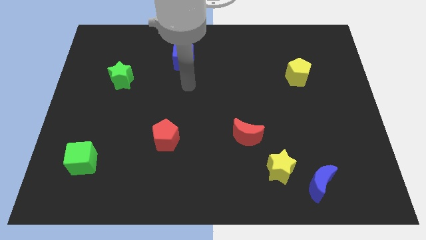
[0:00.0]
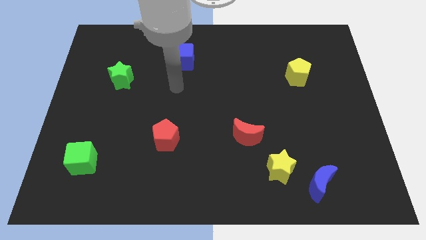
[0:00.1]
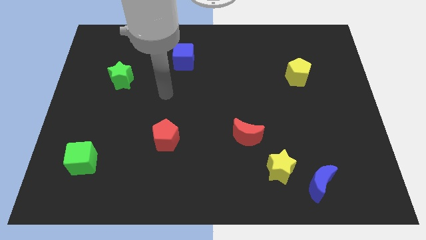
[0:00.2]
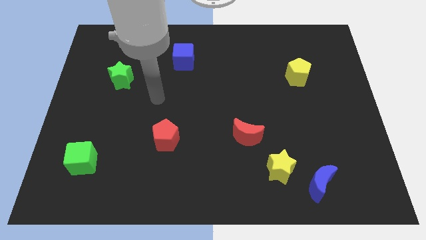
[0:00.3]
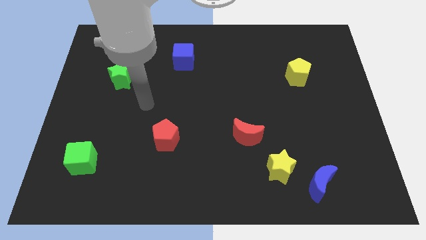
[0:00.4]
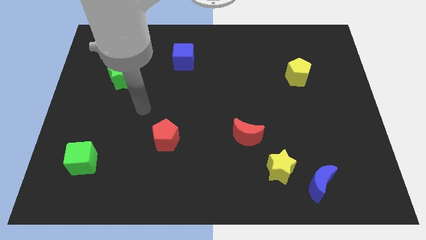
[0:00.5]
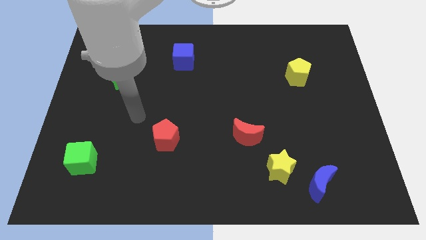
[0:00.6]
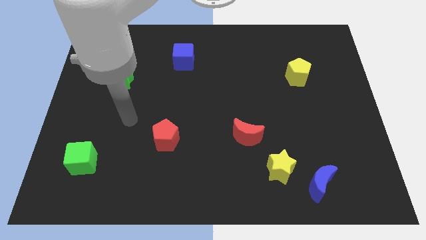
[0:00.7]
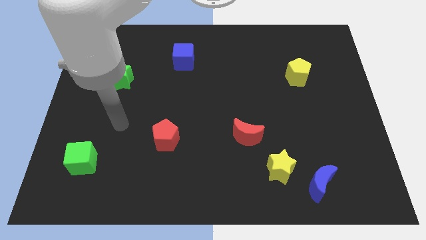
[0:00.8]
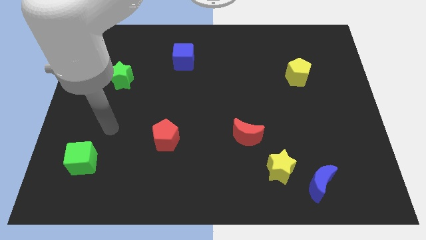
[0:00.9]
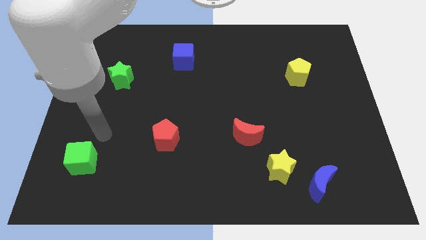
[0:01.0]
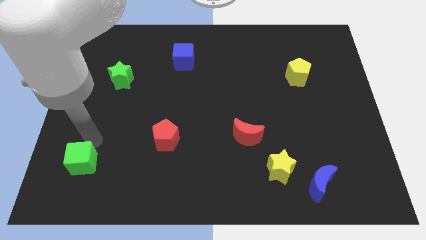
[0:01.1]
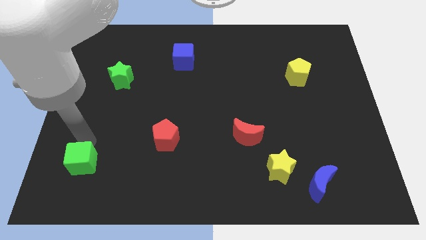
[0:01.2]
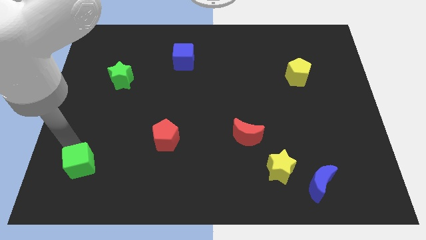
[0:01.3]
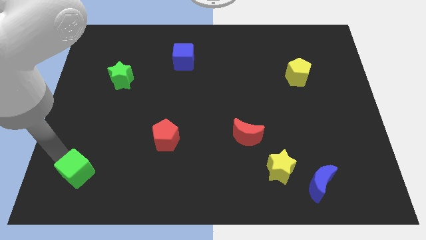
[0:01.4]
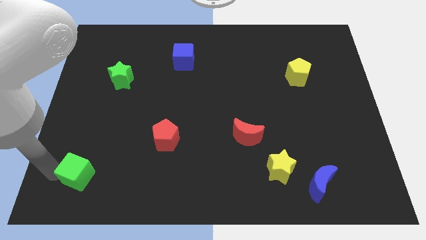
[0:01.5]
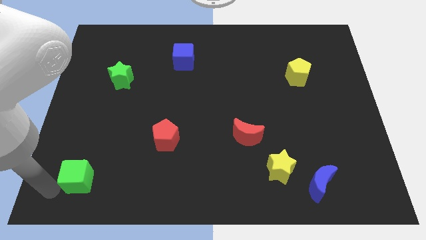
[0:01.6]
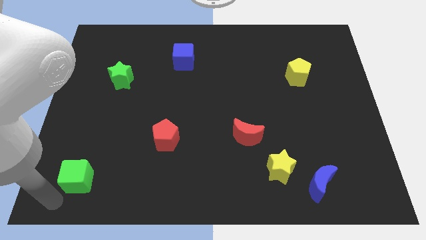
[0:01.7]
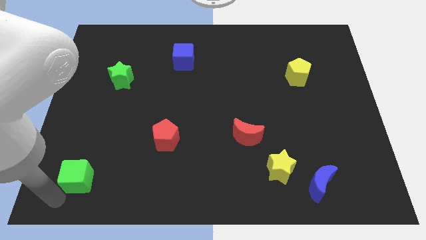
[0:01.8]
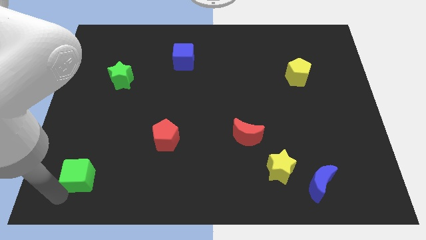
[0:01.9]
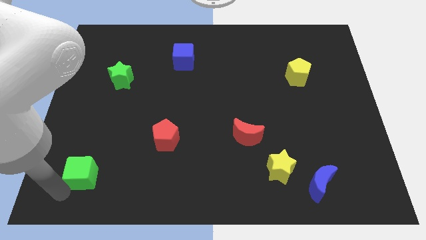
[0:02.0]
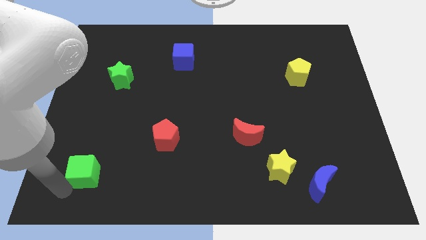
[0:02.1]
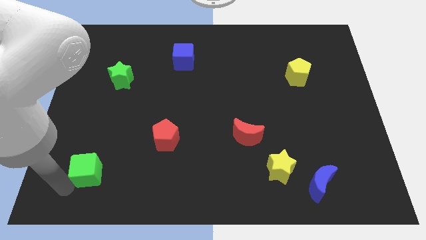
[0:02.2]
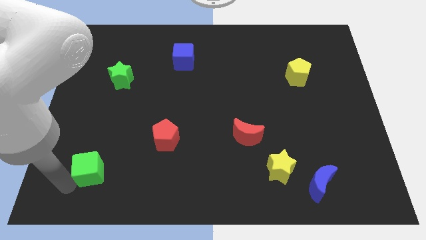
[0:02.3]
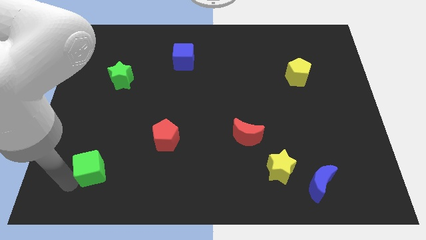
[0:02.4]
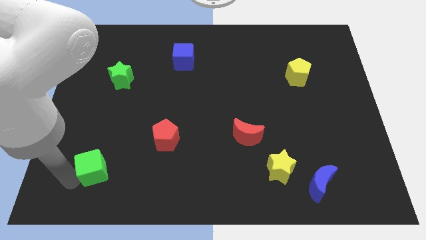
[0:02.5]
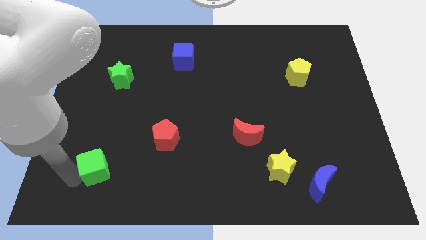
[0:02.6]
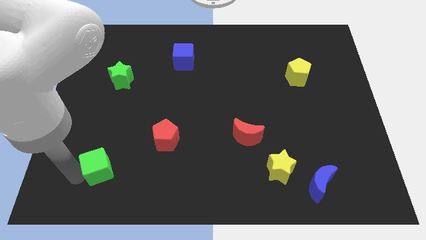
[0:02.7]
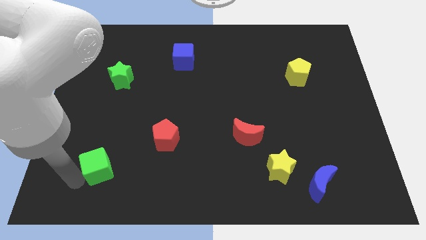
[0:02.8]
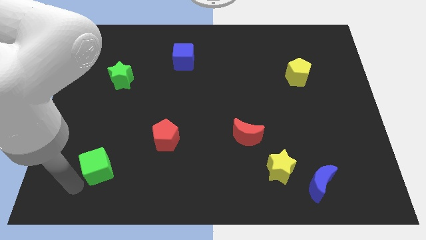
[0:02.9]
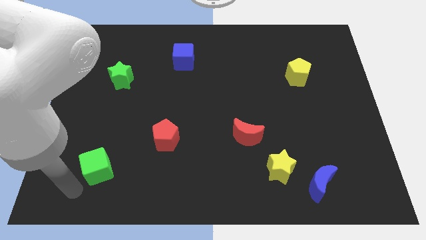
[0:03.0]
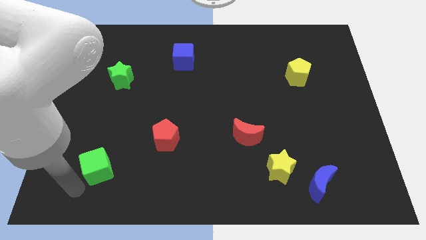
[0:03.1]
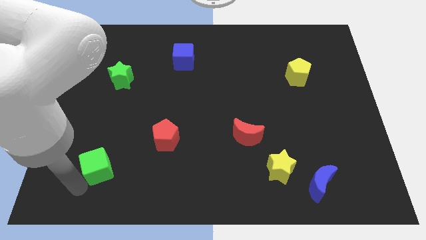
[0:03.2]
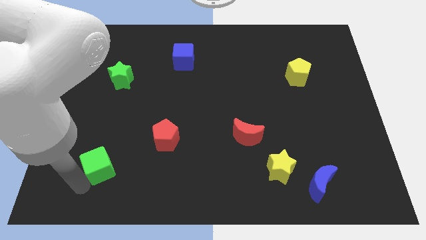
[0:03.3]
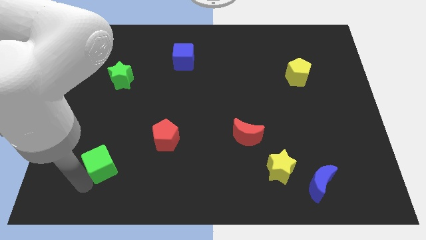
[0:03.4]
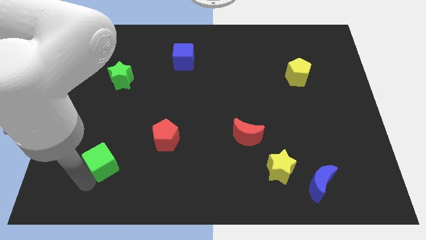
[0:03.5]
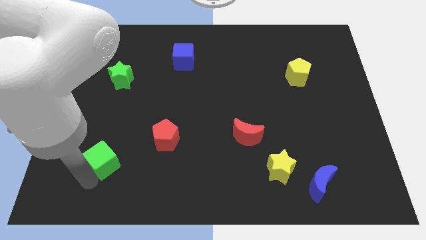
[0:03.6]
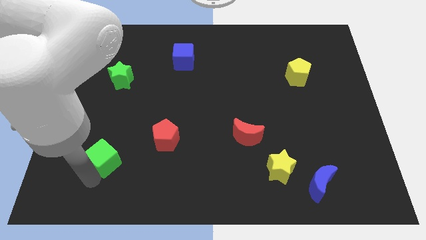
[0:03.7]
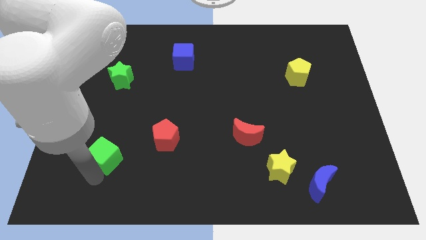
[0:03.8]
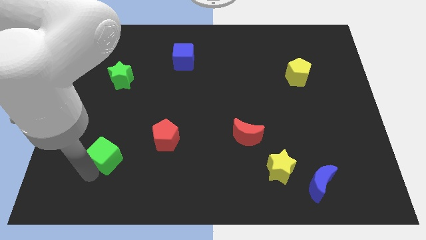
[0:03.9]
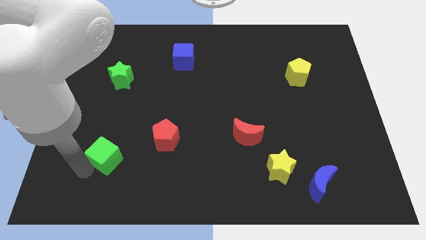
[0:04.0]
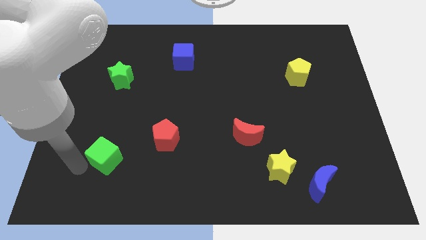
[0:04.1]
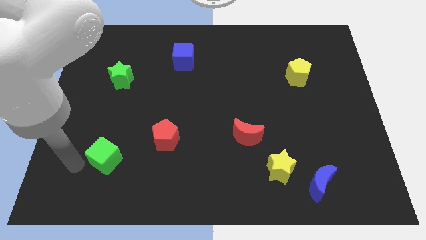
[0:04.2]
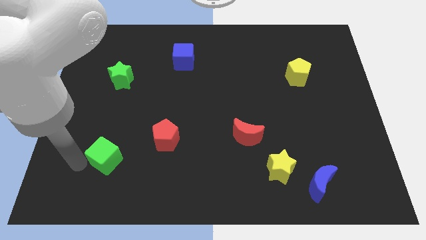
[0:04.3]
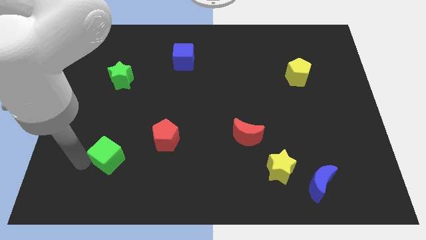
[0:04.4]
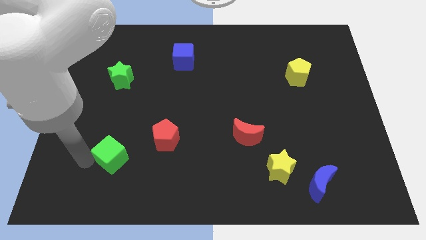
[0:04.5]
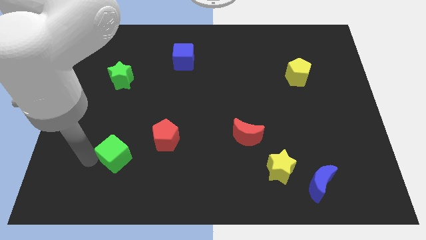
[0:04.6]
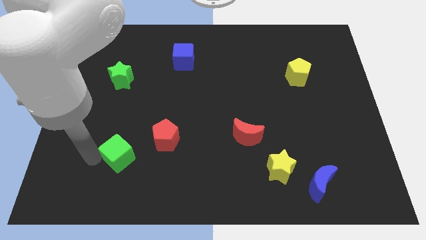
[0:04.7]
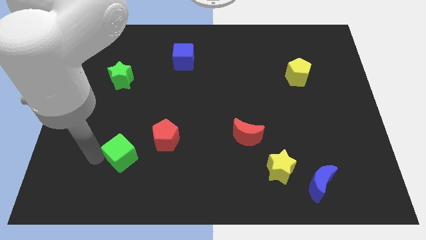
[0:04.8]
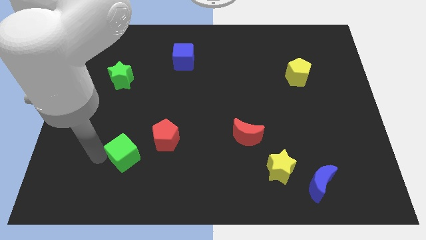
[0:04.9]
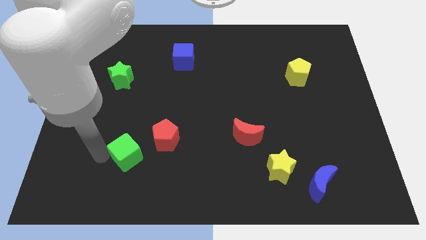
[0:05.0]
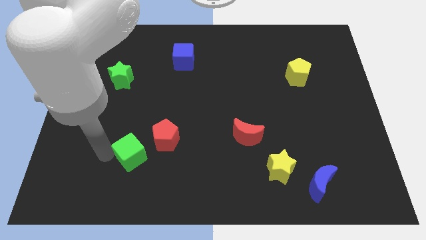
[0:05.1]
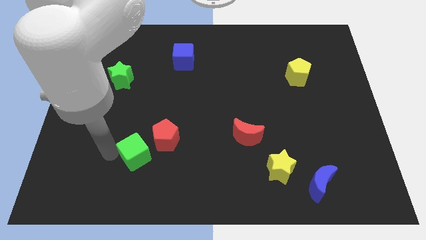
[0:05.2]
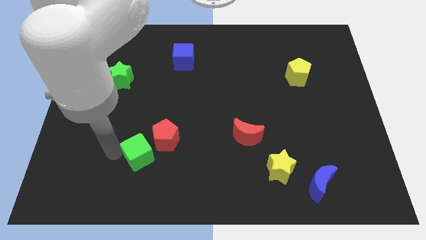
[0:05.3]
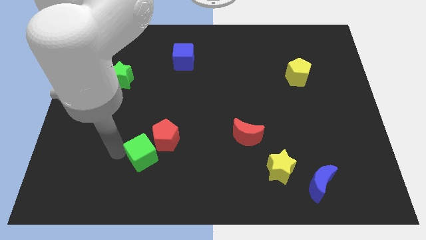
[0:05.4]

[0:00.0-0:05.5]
move the green cube next to the red pentagon
